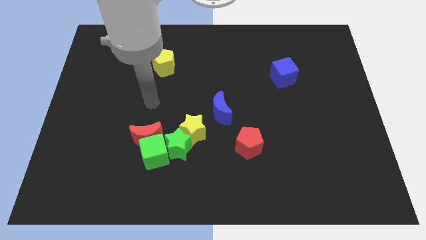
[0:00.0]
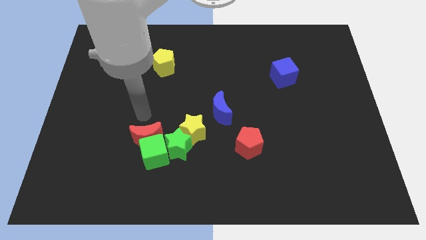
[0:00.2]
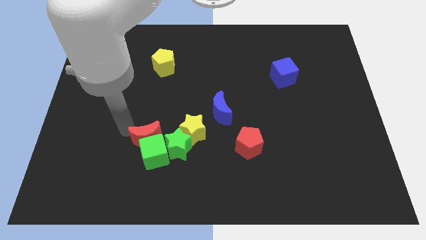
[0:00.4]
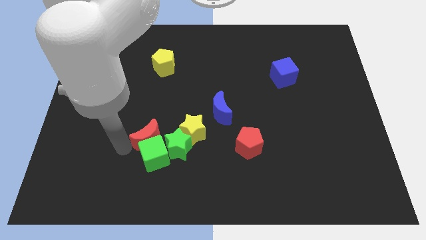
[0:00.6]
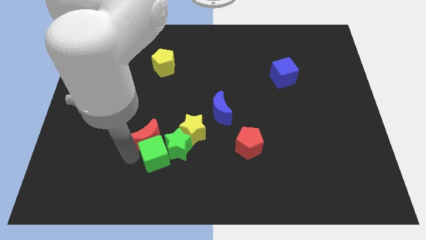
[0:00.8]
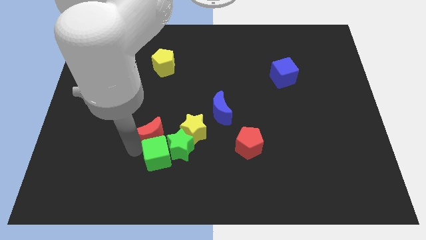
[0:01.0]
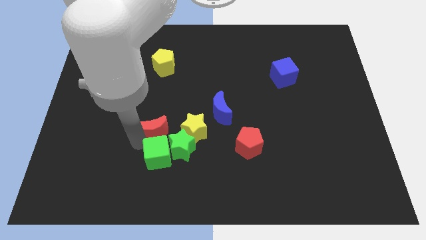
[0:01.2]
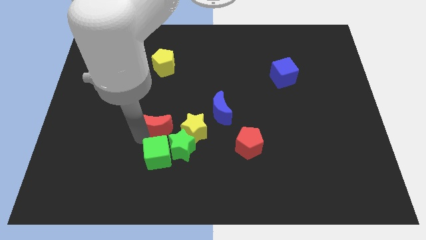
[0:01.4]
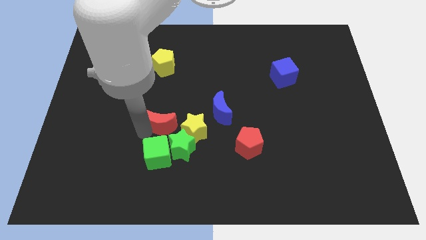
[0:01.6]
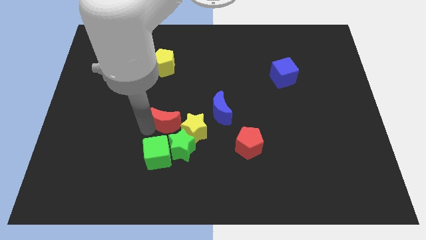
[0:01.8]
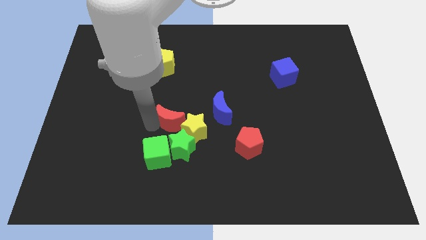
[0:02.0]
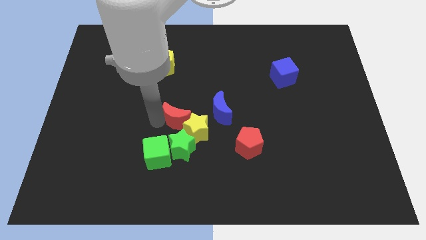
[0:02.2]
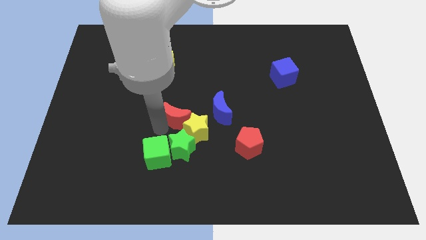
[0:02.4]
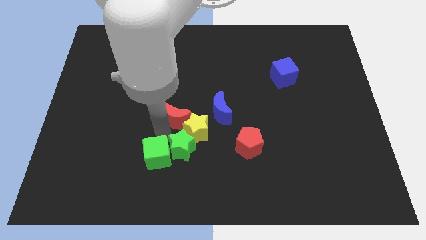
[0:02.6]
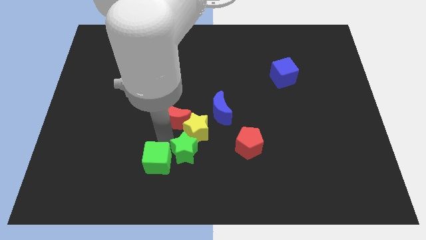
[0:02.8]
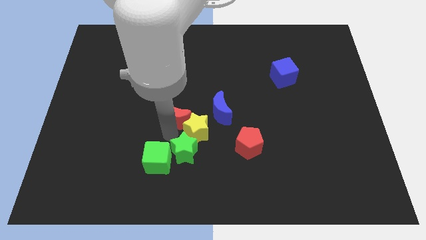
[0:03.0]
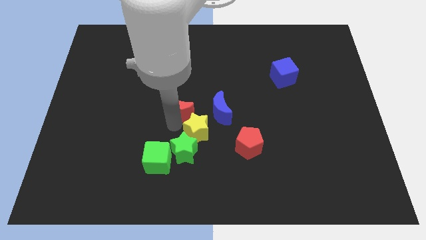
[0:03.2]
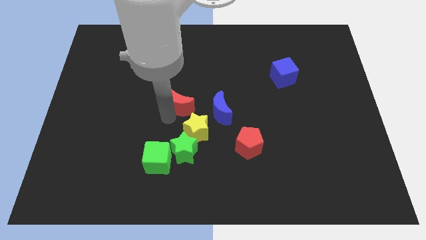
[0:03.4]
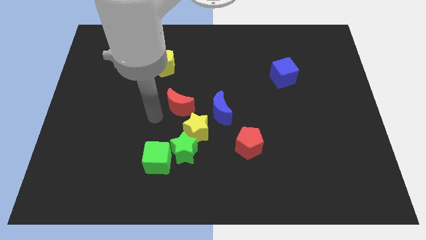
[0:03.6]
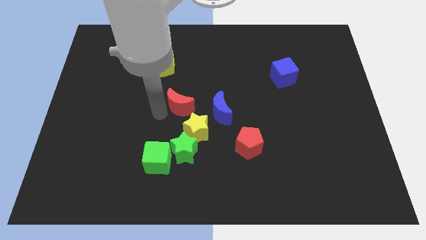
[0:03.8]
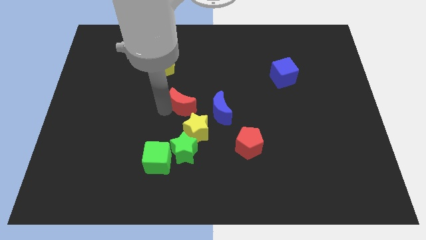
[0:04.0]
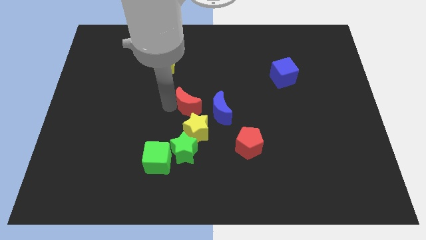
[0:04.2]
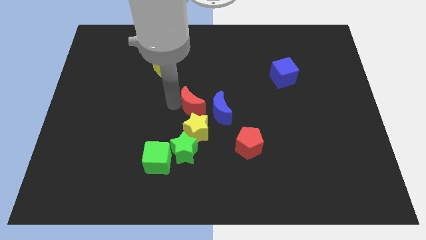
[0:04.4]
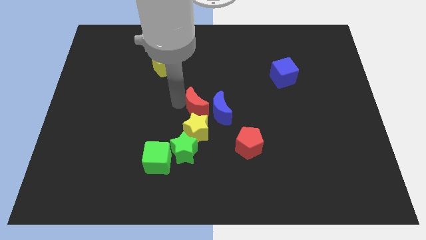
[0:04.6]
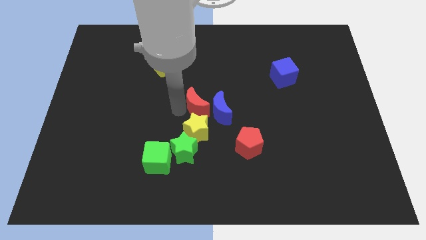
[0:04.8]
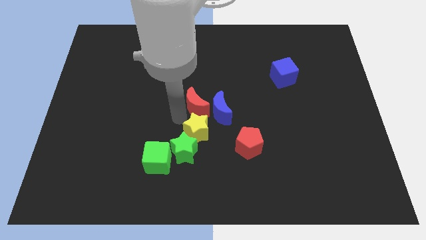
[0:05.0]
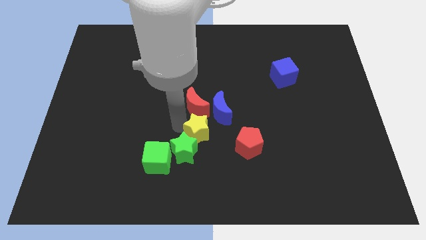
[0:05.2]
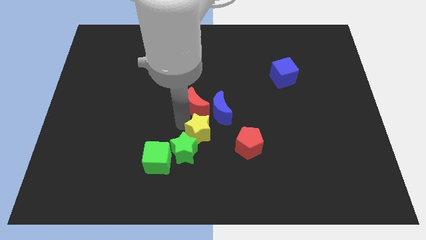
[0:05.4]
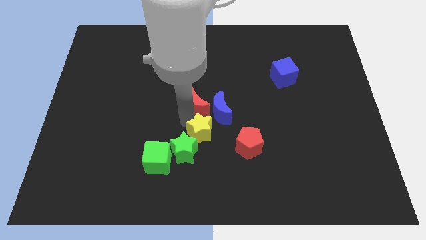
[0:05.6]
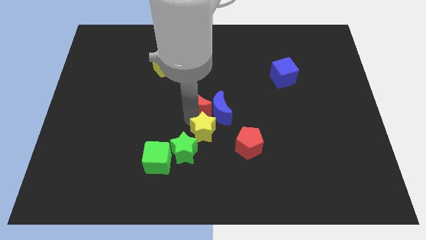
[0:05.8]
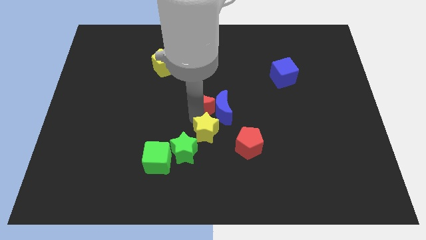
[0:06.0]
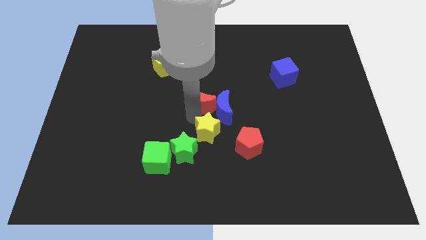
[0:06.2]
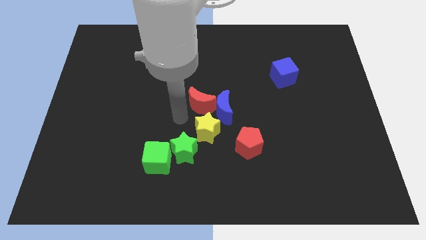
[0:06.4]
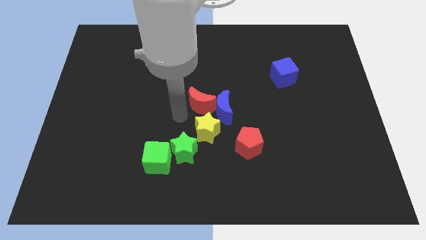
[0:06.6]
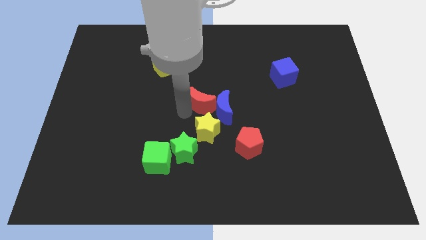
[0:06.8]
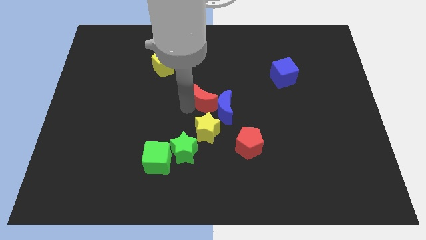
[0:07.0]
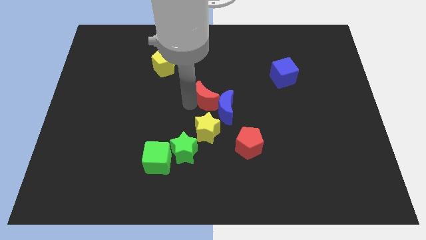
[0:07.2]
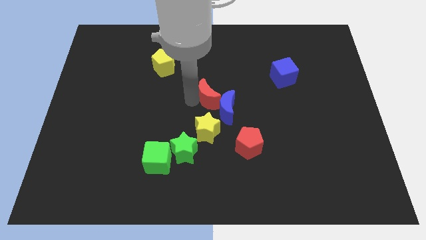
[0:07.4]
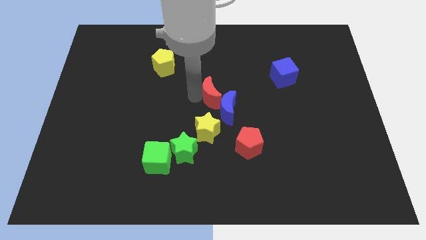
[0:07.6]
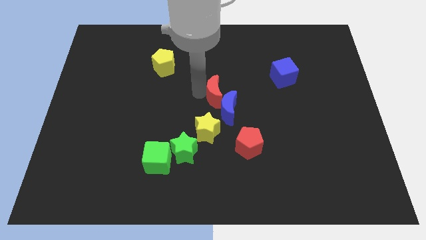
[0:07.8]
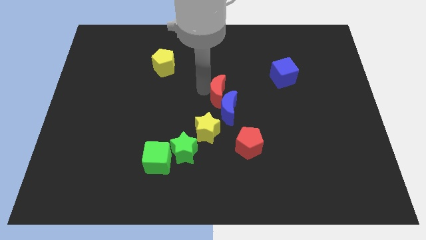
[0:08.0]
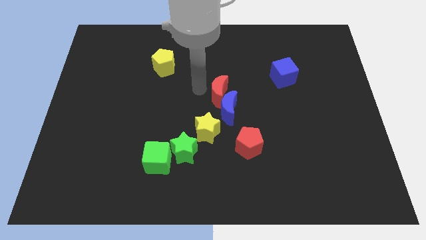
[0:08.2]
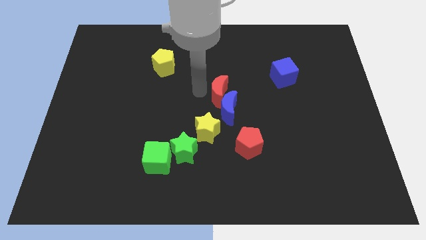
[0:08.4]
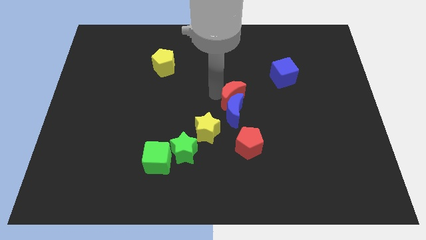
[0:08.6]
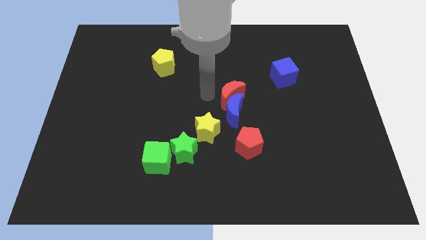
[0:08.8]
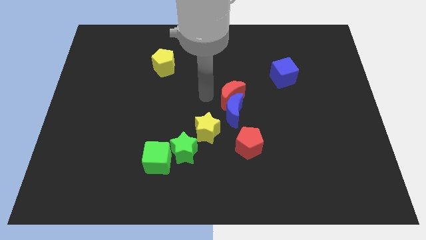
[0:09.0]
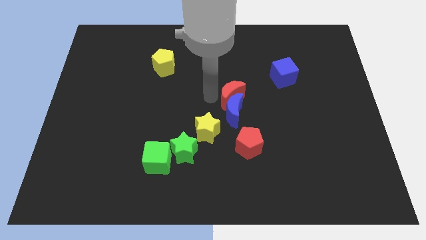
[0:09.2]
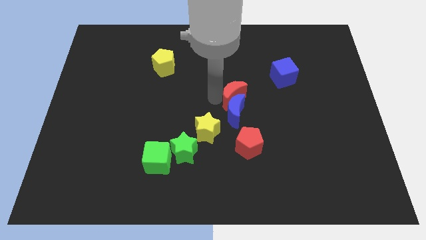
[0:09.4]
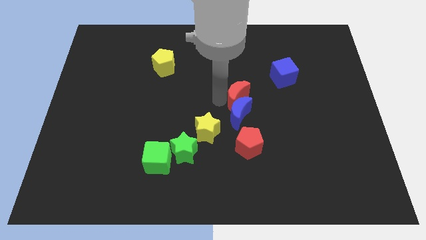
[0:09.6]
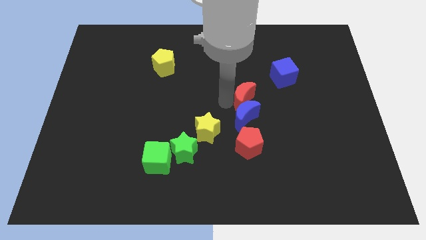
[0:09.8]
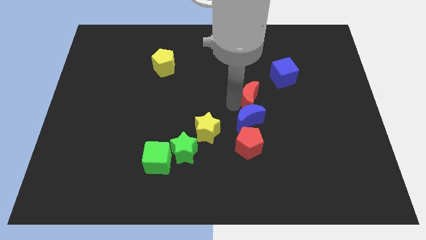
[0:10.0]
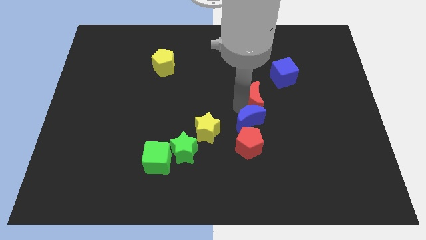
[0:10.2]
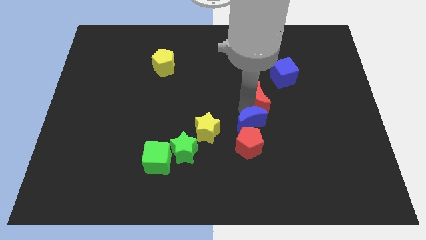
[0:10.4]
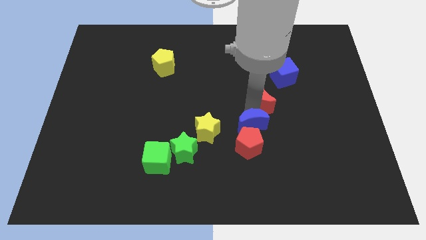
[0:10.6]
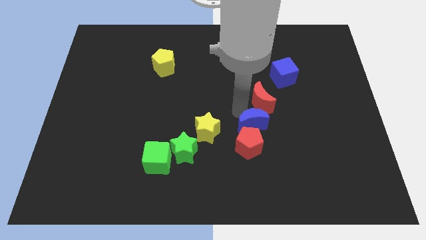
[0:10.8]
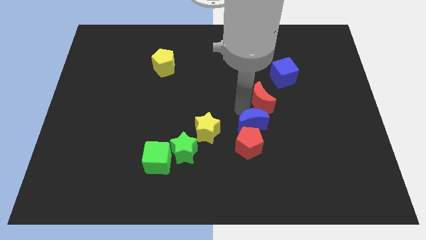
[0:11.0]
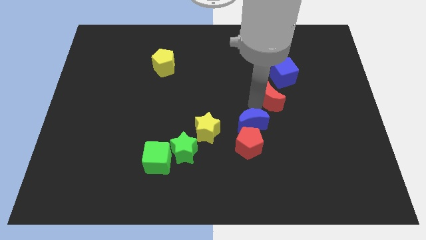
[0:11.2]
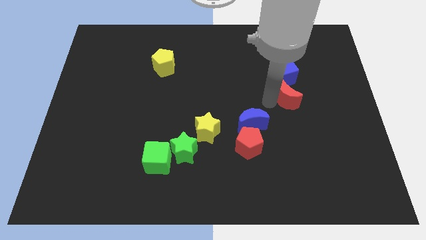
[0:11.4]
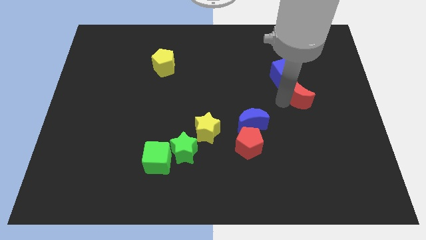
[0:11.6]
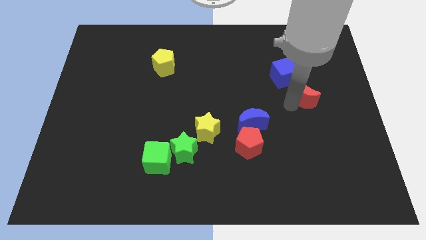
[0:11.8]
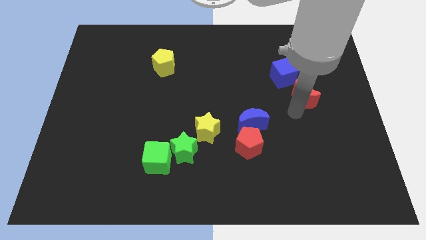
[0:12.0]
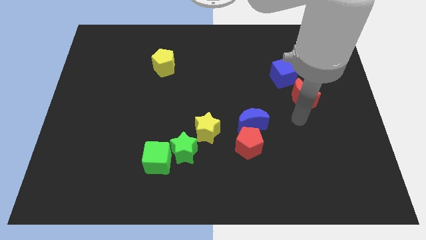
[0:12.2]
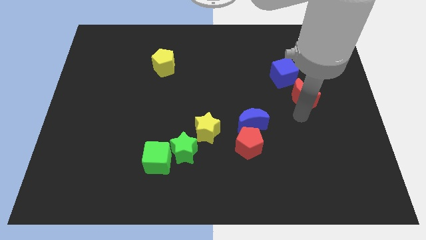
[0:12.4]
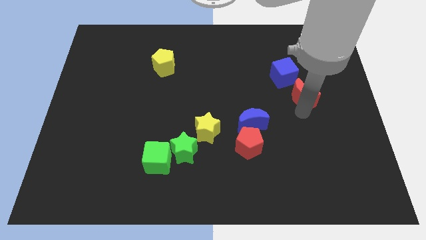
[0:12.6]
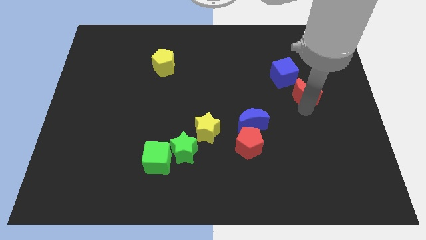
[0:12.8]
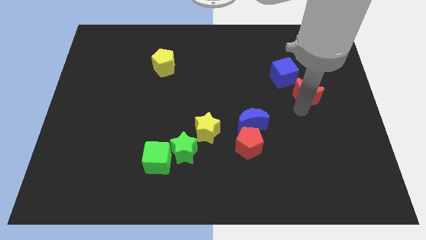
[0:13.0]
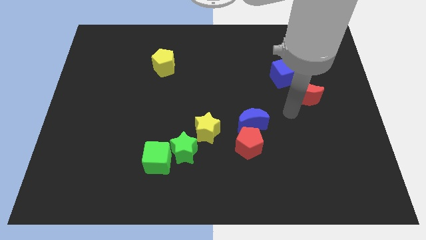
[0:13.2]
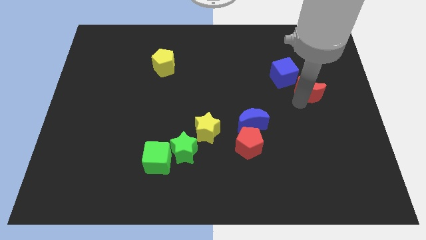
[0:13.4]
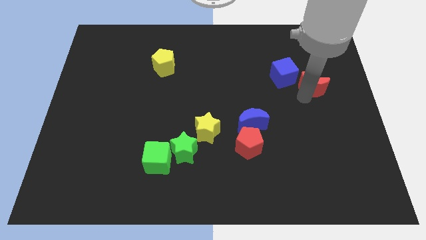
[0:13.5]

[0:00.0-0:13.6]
move the red moon to the right of the blue cube
